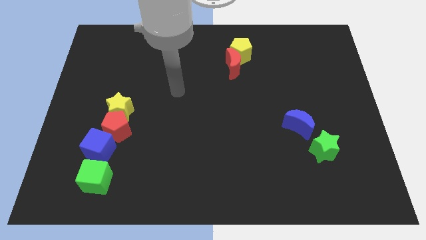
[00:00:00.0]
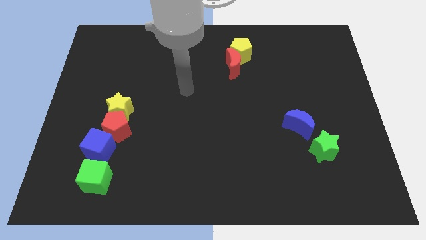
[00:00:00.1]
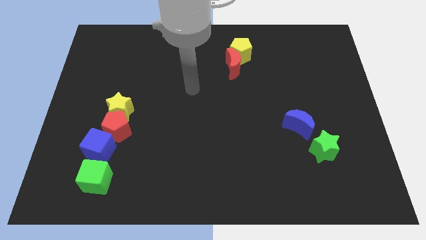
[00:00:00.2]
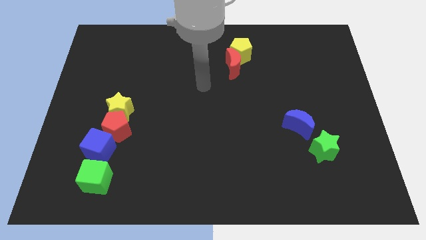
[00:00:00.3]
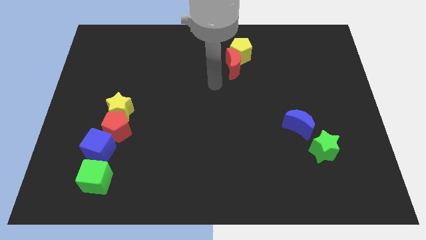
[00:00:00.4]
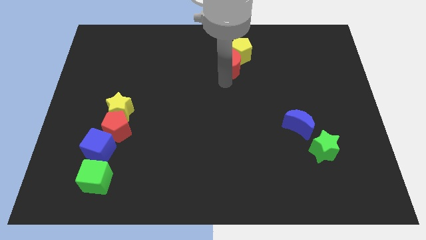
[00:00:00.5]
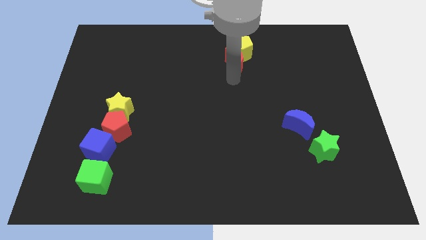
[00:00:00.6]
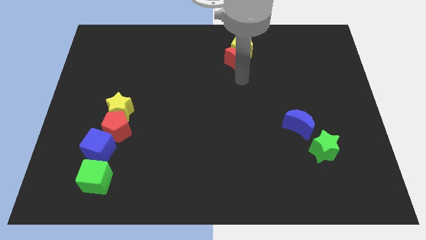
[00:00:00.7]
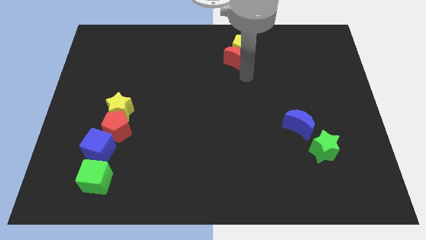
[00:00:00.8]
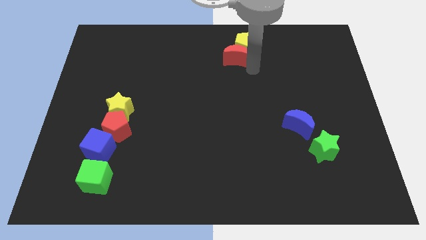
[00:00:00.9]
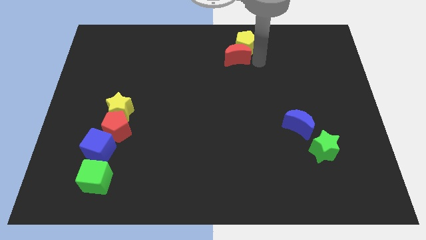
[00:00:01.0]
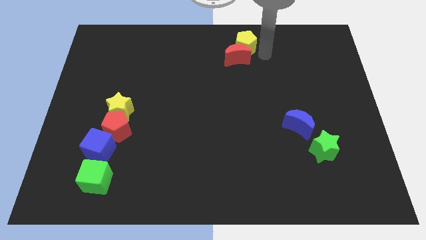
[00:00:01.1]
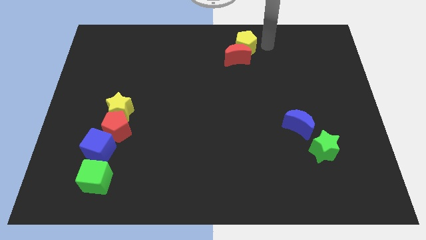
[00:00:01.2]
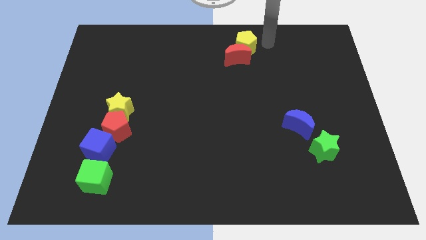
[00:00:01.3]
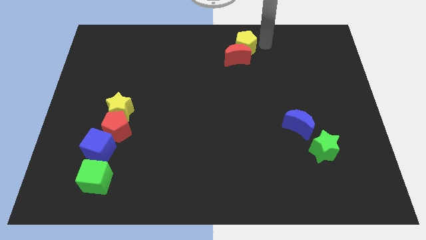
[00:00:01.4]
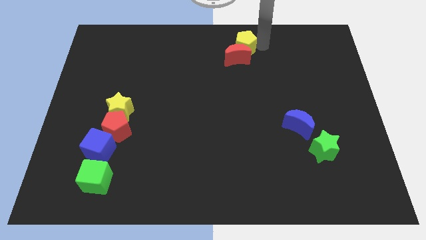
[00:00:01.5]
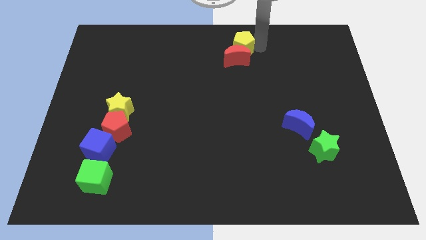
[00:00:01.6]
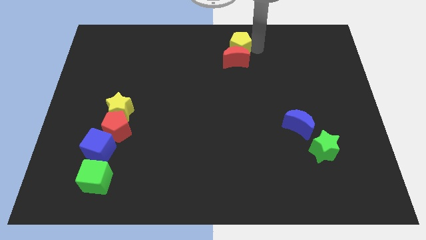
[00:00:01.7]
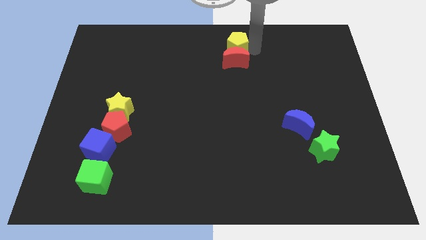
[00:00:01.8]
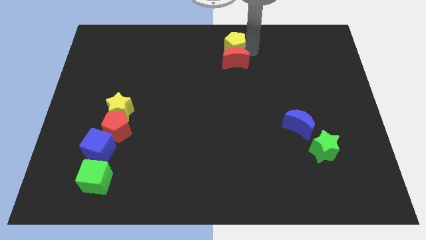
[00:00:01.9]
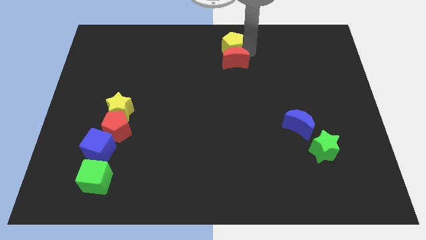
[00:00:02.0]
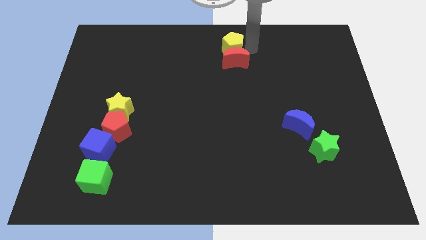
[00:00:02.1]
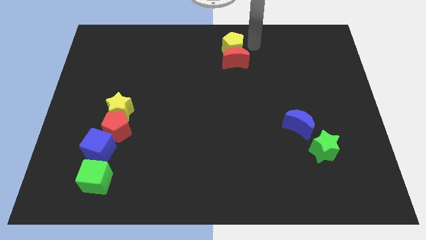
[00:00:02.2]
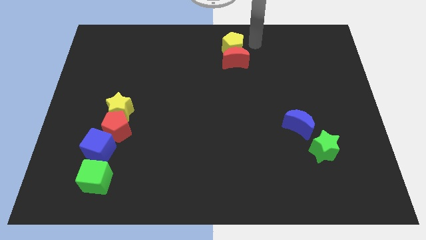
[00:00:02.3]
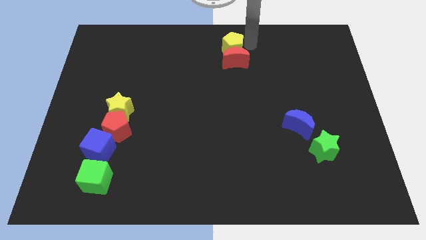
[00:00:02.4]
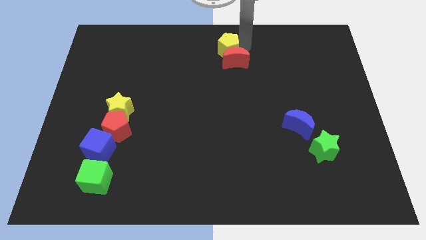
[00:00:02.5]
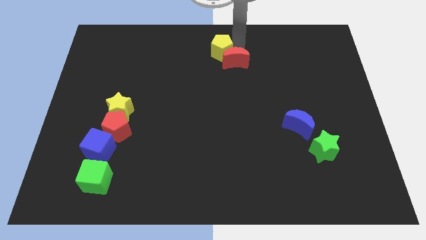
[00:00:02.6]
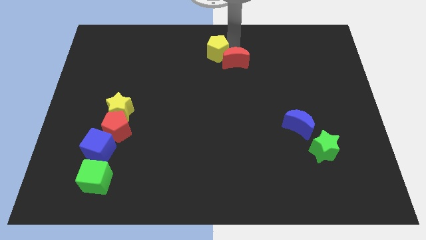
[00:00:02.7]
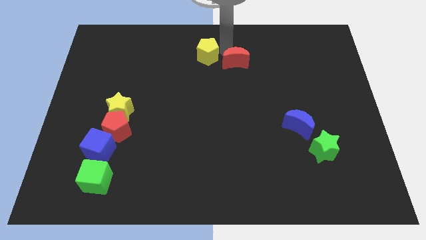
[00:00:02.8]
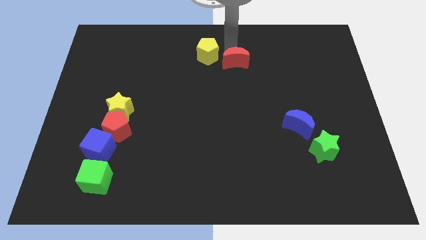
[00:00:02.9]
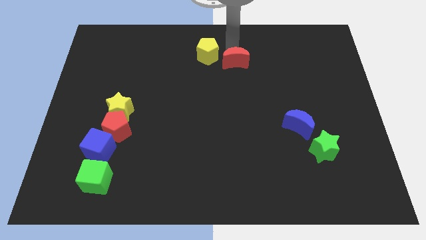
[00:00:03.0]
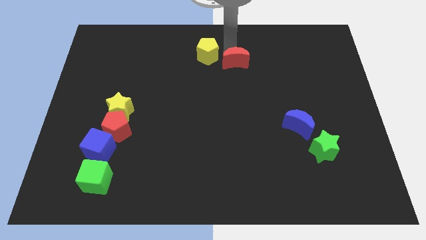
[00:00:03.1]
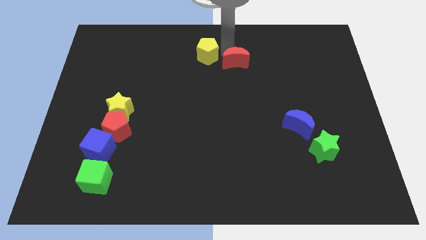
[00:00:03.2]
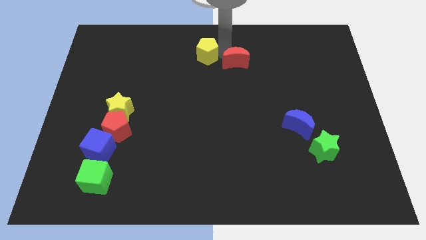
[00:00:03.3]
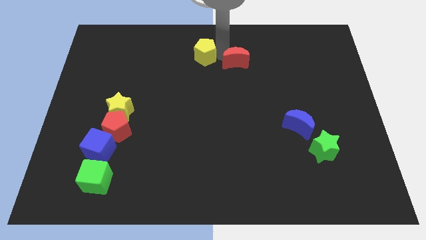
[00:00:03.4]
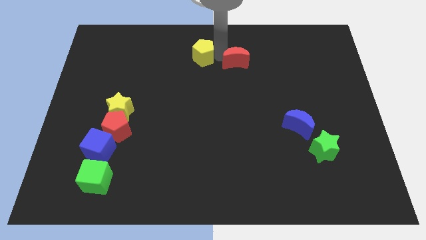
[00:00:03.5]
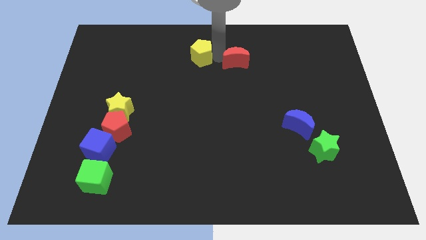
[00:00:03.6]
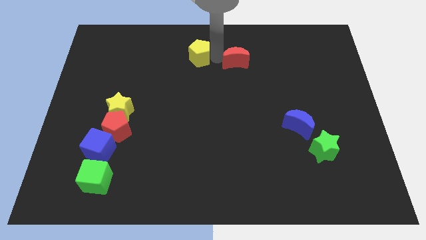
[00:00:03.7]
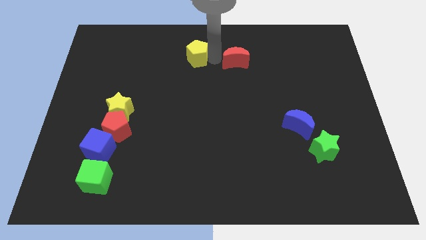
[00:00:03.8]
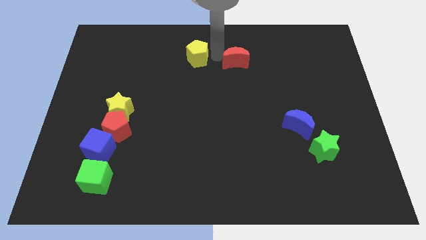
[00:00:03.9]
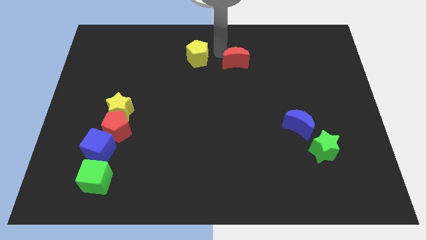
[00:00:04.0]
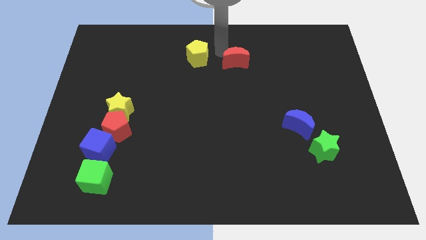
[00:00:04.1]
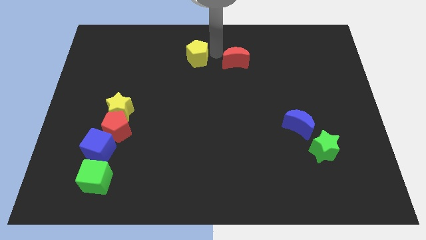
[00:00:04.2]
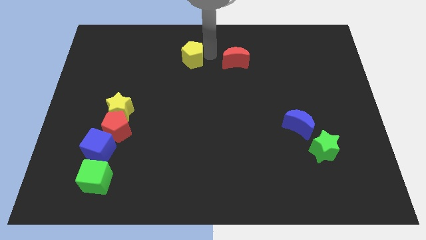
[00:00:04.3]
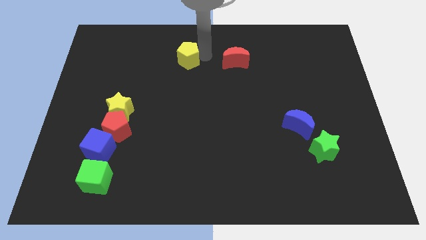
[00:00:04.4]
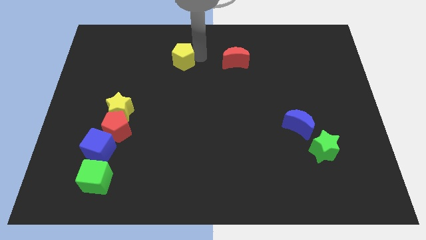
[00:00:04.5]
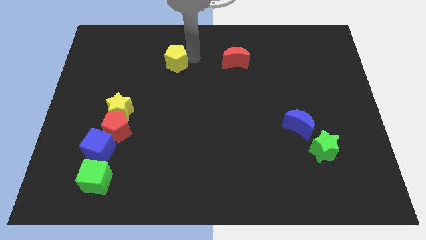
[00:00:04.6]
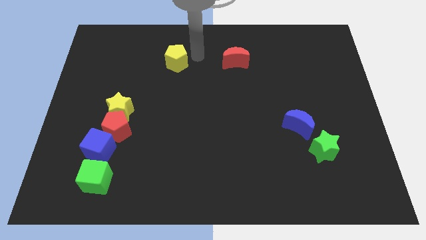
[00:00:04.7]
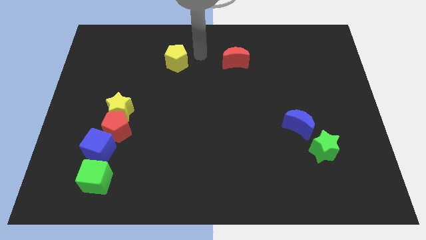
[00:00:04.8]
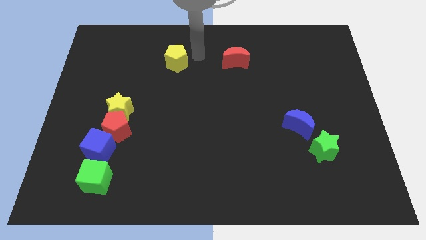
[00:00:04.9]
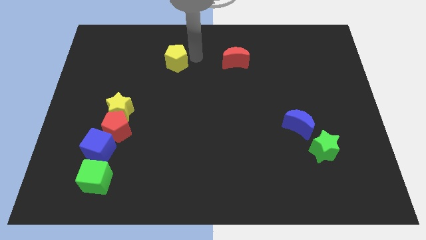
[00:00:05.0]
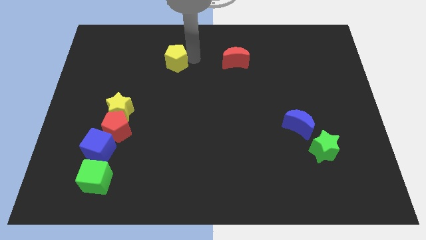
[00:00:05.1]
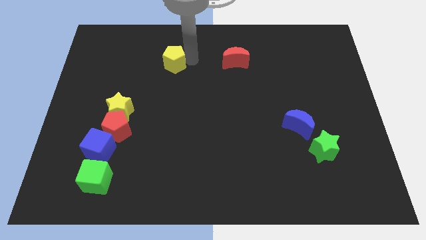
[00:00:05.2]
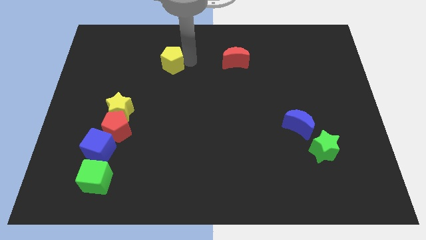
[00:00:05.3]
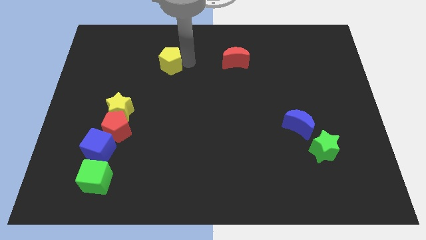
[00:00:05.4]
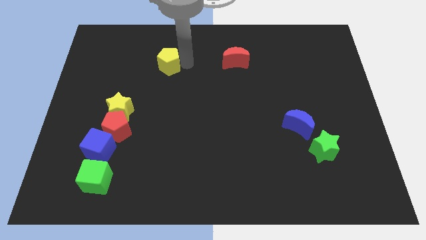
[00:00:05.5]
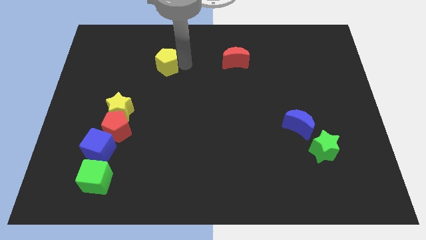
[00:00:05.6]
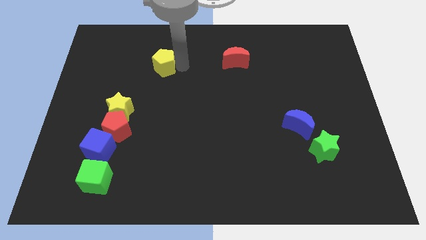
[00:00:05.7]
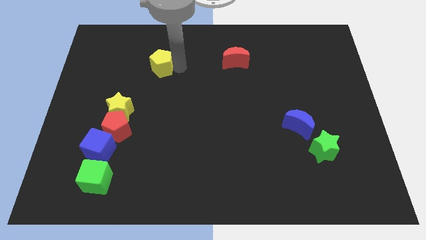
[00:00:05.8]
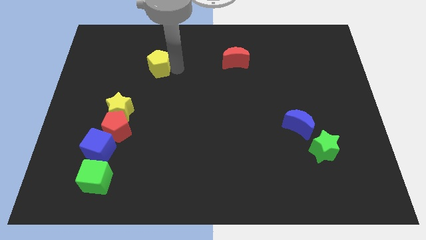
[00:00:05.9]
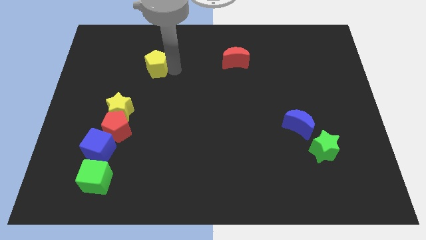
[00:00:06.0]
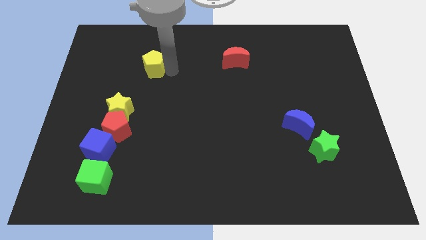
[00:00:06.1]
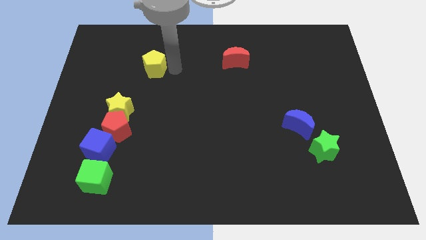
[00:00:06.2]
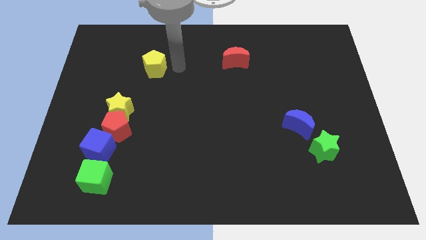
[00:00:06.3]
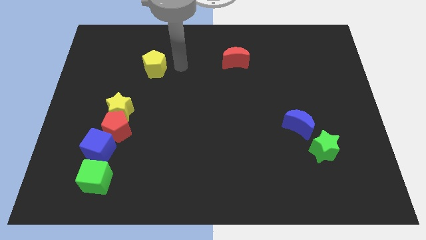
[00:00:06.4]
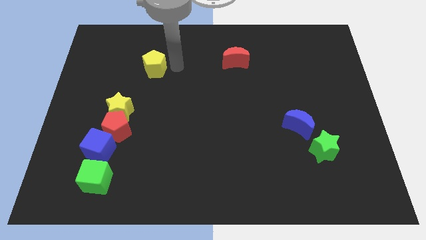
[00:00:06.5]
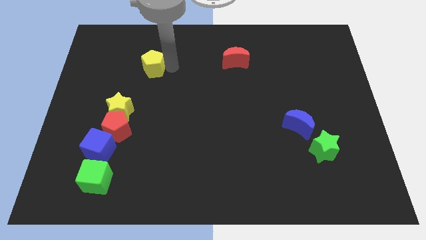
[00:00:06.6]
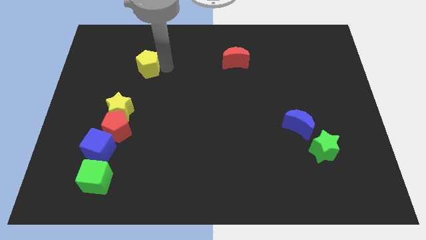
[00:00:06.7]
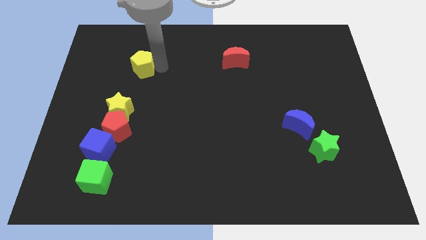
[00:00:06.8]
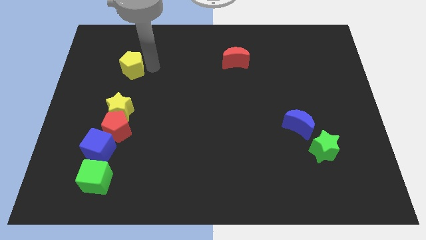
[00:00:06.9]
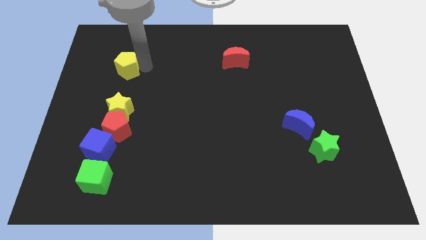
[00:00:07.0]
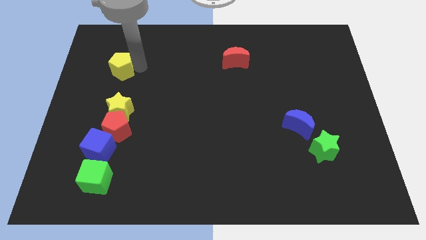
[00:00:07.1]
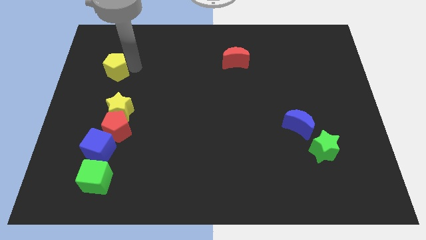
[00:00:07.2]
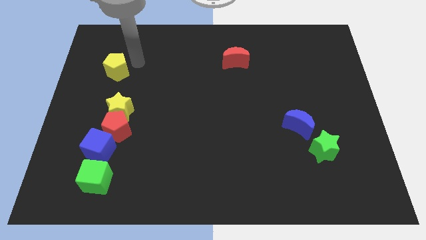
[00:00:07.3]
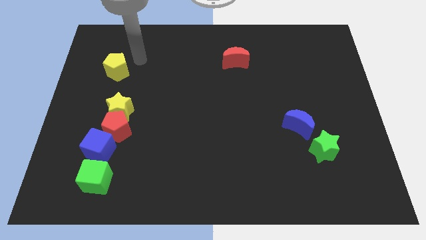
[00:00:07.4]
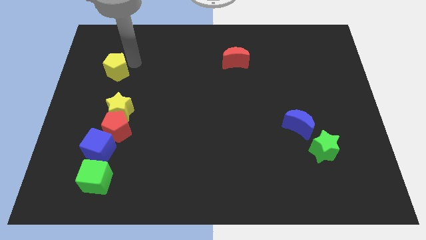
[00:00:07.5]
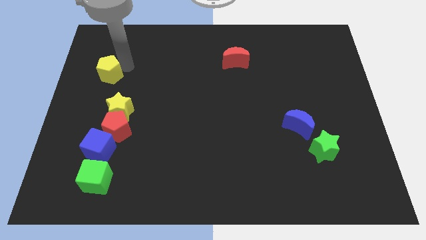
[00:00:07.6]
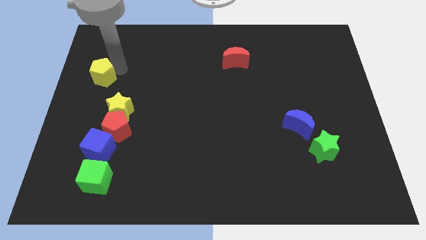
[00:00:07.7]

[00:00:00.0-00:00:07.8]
move the yellow pentagon to the left side
